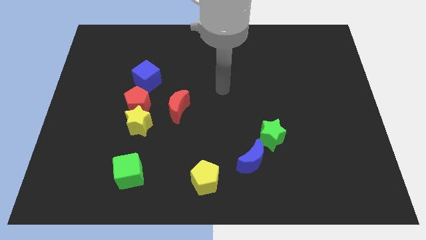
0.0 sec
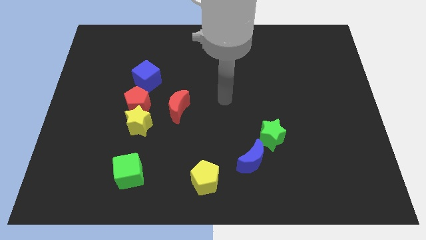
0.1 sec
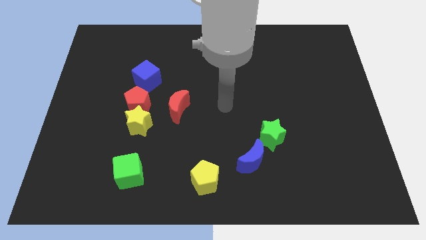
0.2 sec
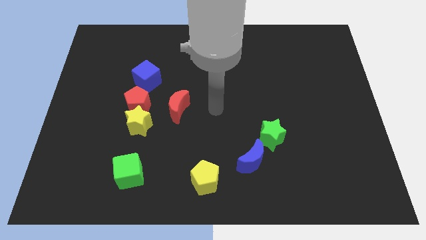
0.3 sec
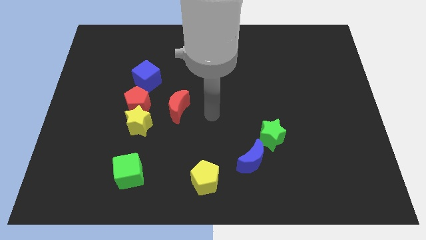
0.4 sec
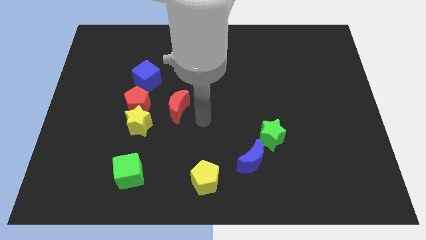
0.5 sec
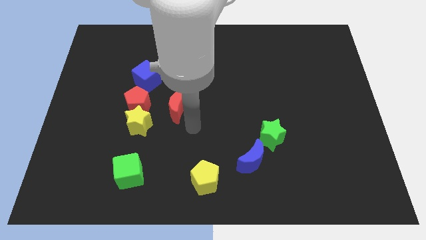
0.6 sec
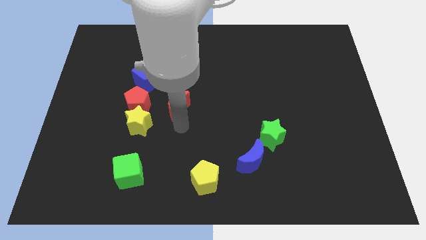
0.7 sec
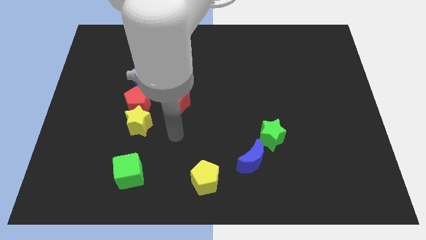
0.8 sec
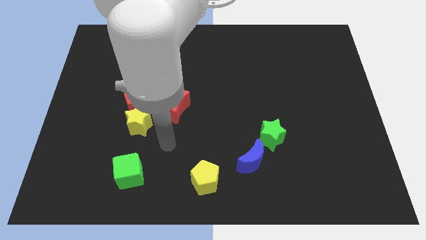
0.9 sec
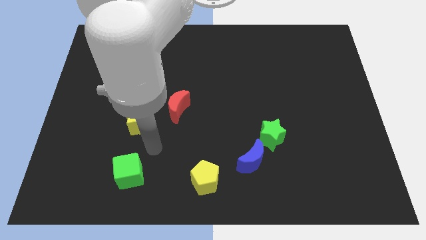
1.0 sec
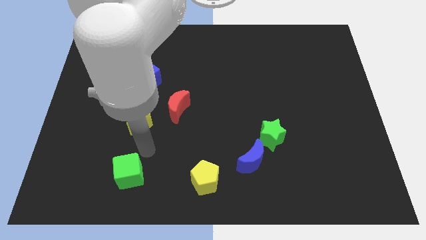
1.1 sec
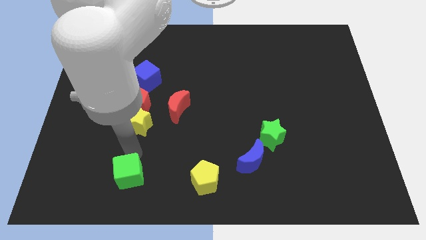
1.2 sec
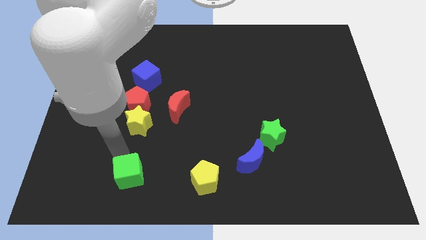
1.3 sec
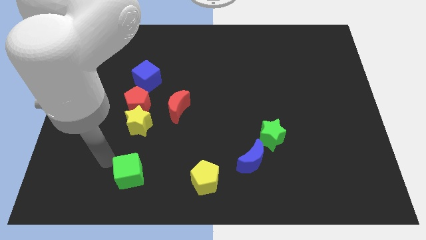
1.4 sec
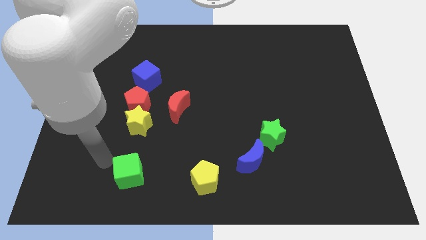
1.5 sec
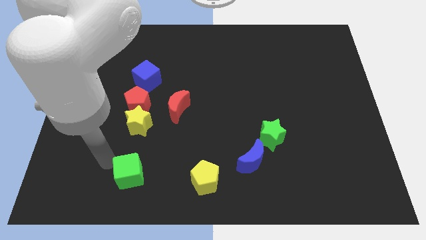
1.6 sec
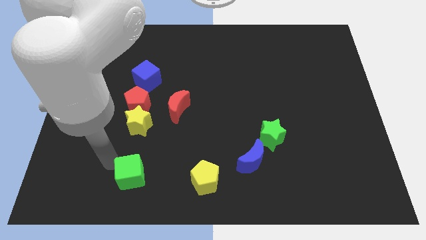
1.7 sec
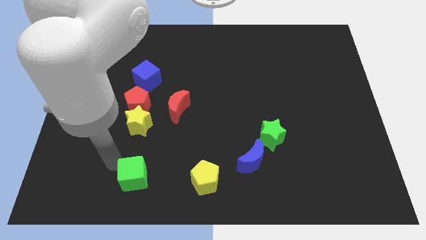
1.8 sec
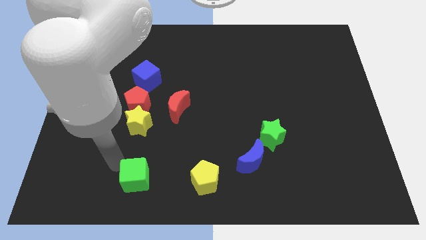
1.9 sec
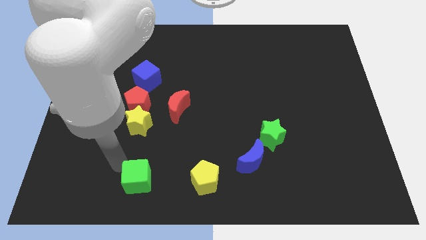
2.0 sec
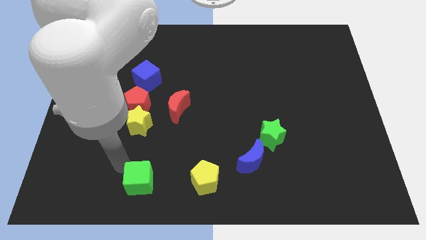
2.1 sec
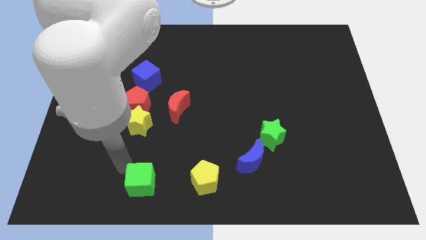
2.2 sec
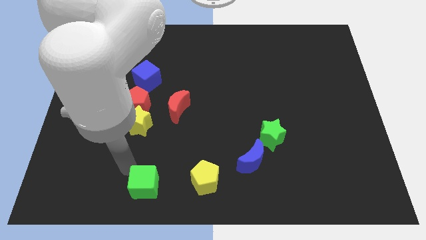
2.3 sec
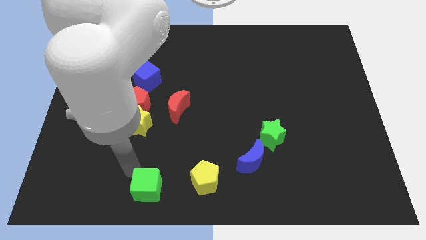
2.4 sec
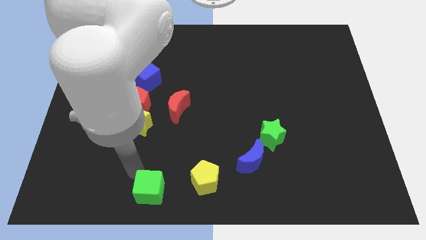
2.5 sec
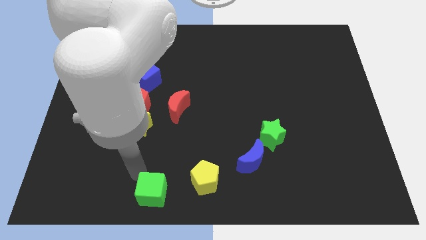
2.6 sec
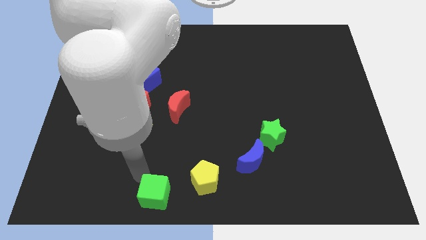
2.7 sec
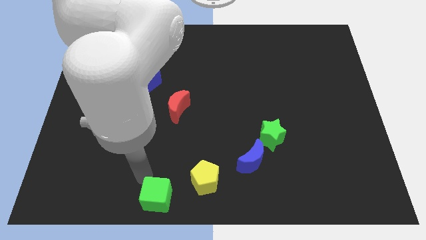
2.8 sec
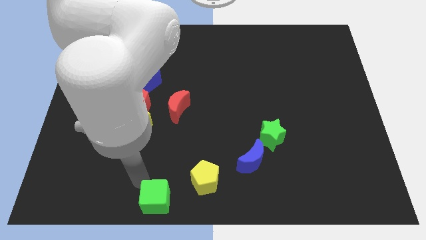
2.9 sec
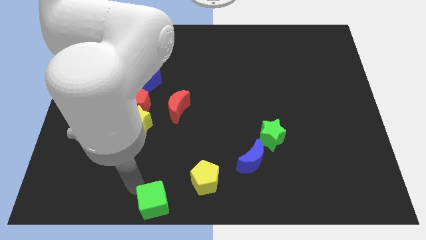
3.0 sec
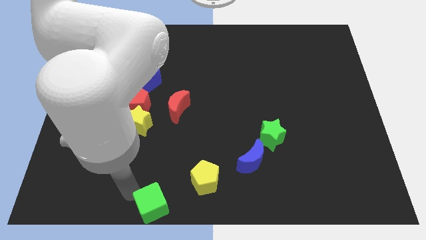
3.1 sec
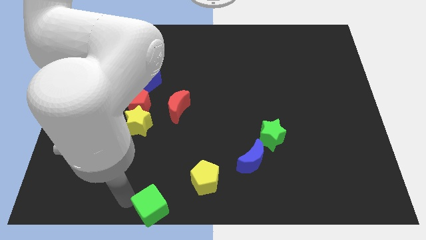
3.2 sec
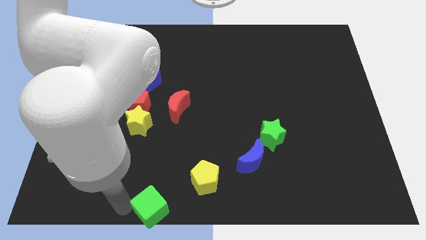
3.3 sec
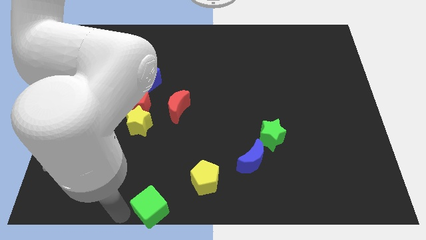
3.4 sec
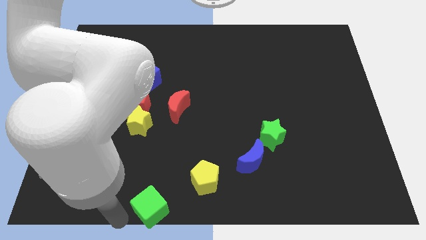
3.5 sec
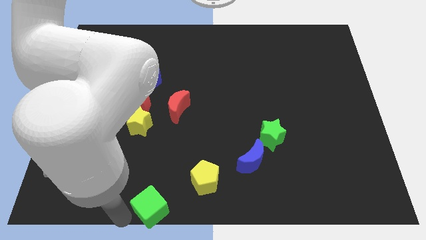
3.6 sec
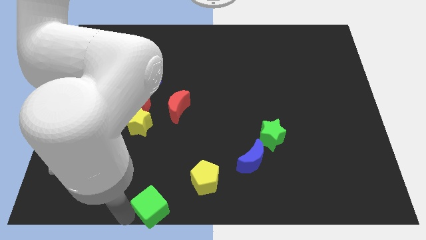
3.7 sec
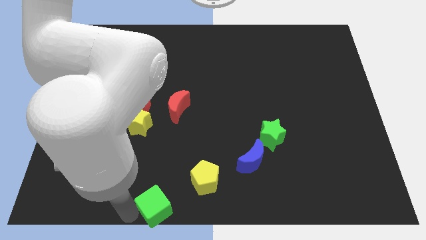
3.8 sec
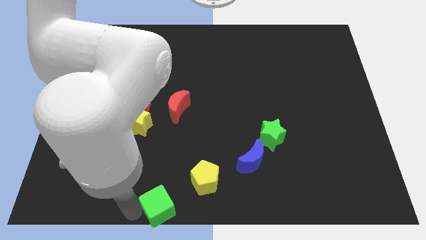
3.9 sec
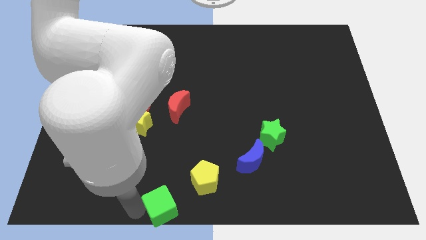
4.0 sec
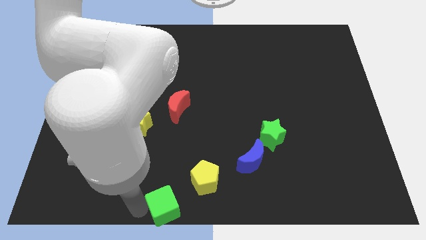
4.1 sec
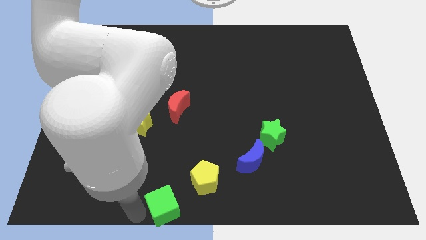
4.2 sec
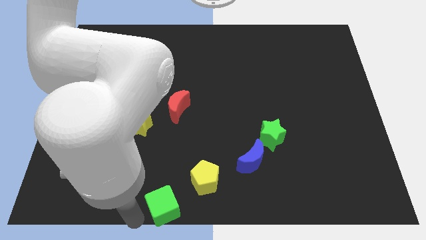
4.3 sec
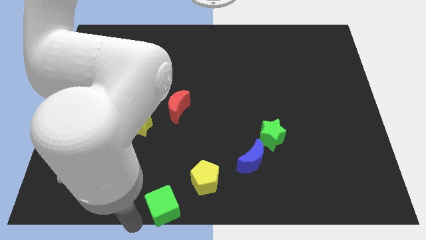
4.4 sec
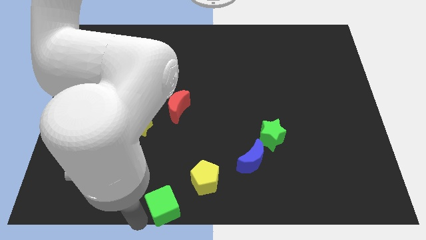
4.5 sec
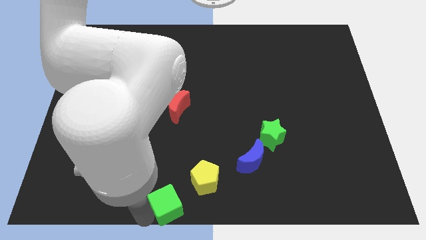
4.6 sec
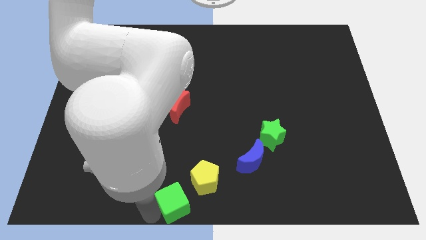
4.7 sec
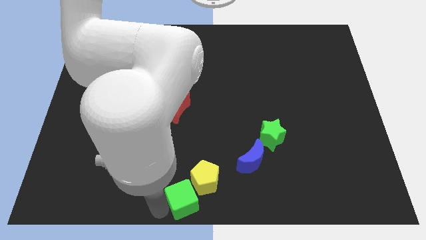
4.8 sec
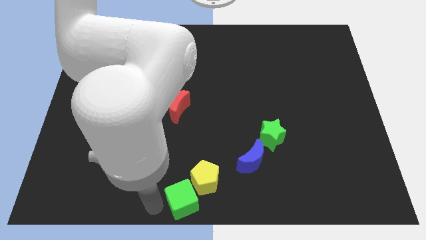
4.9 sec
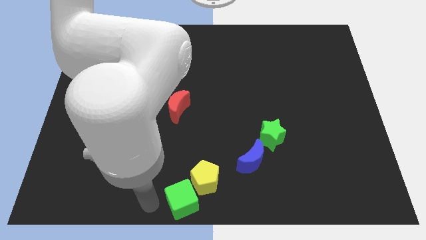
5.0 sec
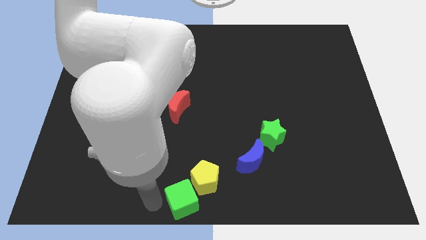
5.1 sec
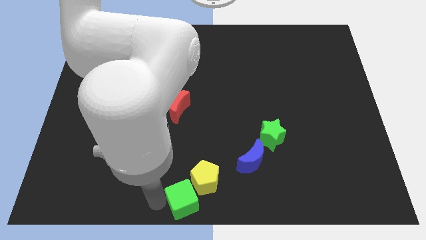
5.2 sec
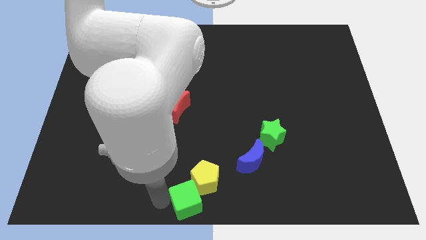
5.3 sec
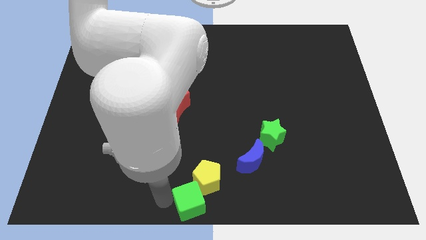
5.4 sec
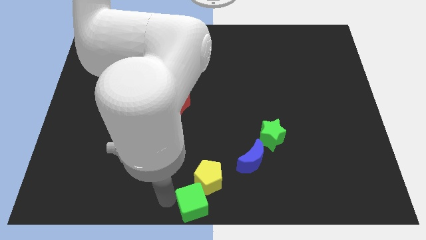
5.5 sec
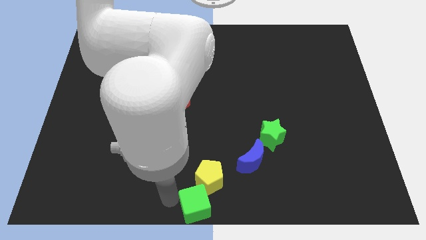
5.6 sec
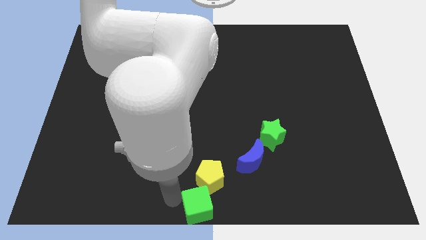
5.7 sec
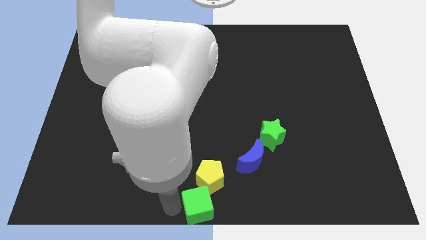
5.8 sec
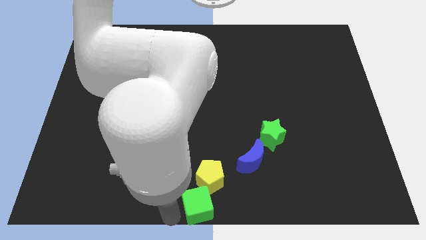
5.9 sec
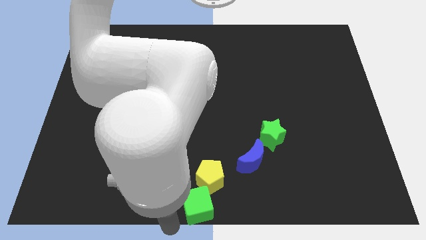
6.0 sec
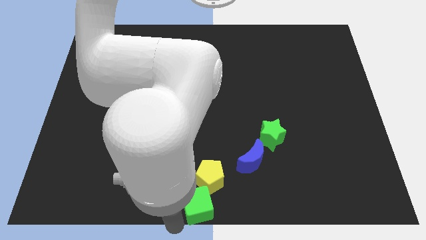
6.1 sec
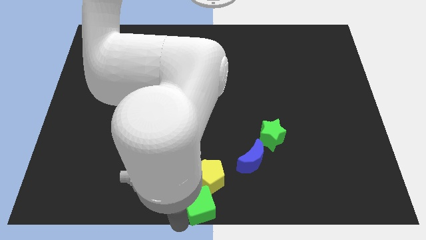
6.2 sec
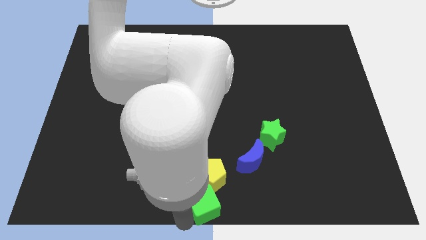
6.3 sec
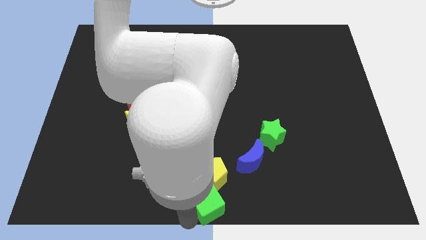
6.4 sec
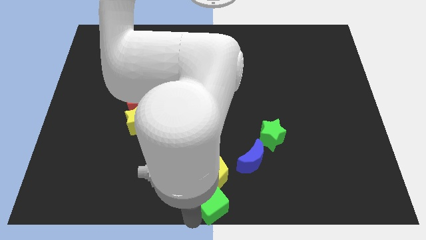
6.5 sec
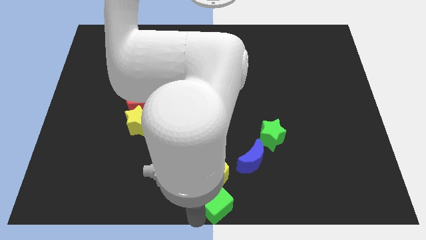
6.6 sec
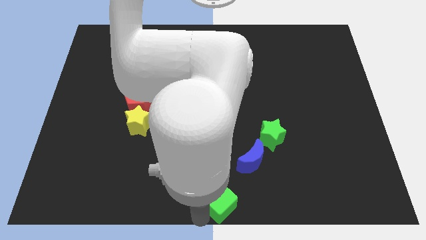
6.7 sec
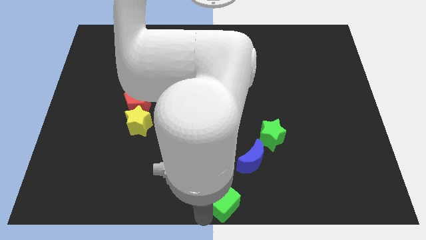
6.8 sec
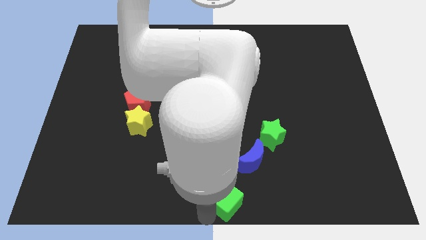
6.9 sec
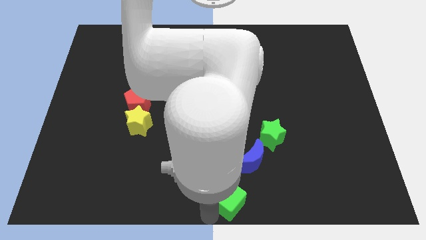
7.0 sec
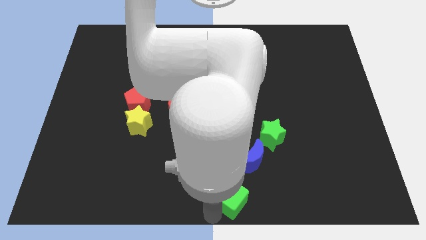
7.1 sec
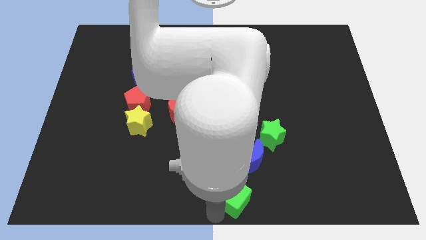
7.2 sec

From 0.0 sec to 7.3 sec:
slide the green cube to the right

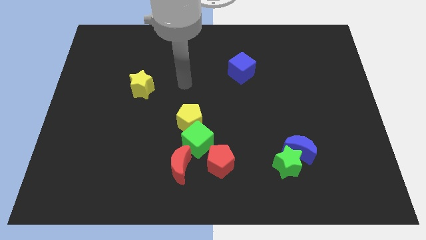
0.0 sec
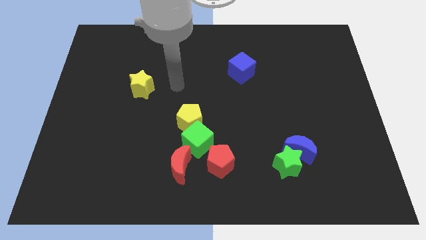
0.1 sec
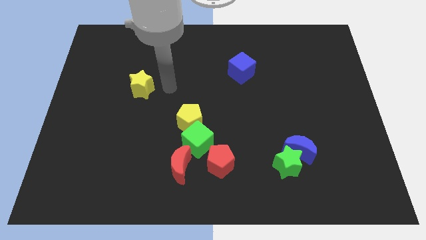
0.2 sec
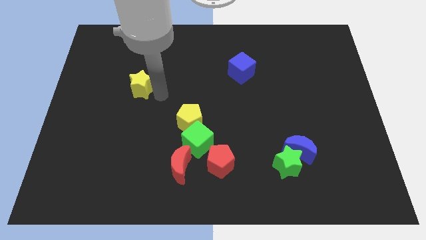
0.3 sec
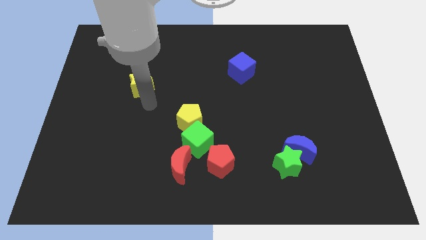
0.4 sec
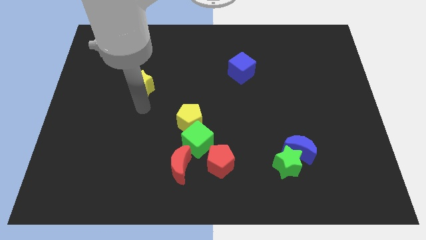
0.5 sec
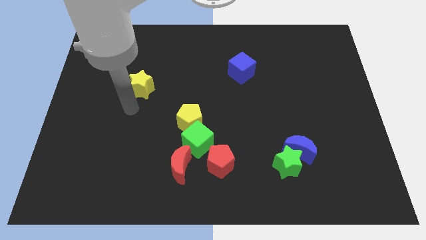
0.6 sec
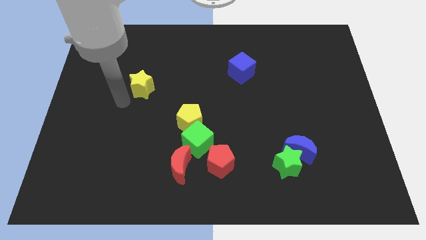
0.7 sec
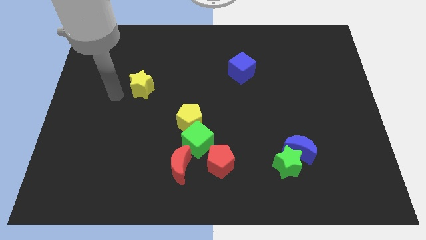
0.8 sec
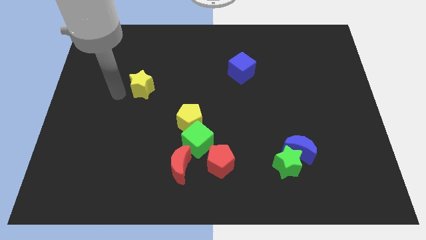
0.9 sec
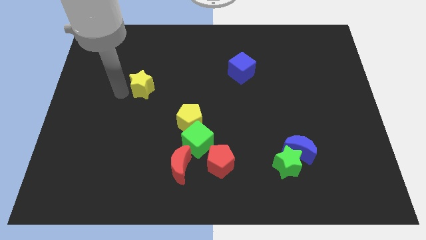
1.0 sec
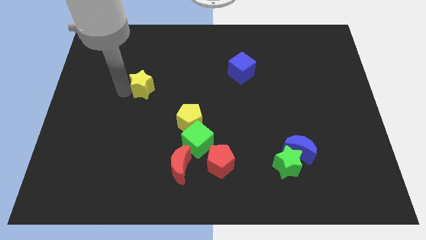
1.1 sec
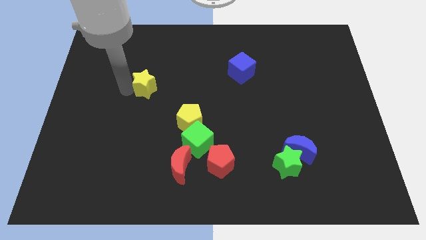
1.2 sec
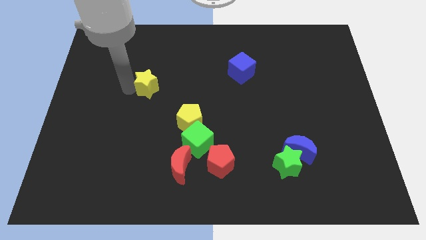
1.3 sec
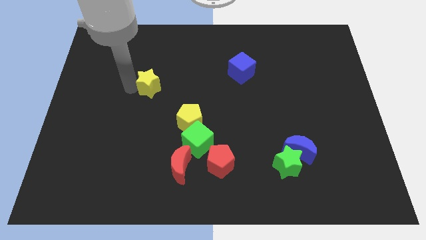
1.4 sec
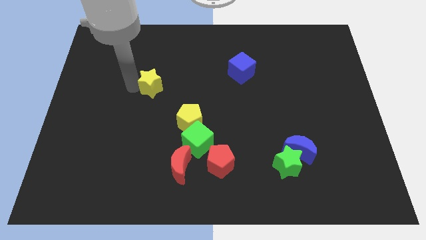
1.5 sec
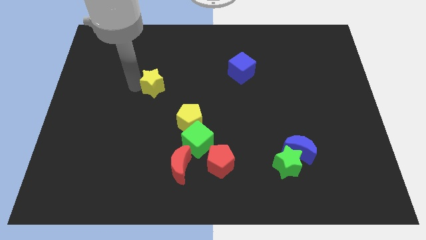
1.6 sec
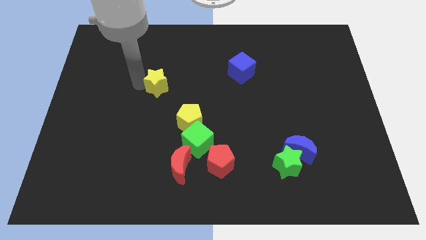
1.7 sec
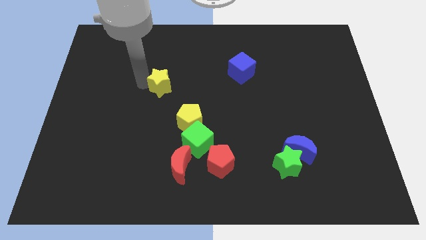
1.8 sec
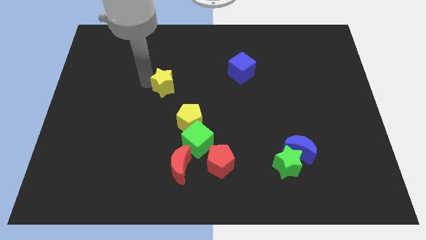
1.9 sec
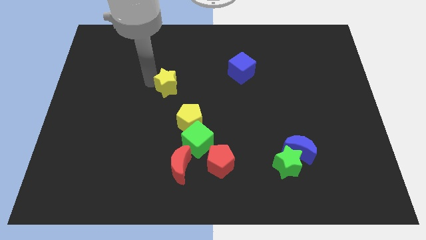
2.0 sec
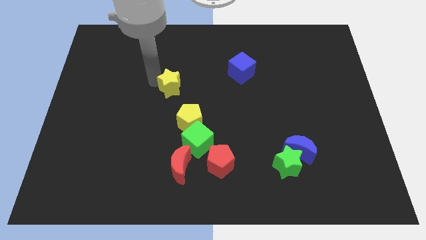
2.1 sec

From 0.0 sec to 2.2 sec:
slide the yellow star a bit right
